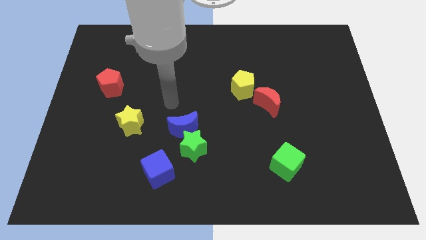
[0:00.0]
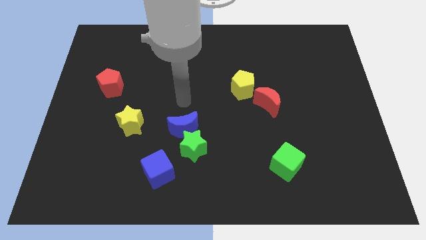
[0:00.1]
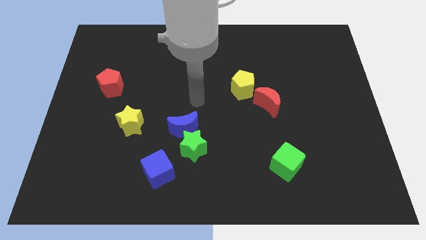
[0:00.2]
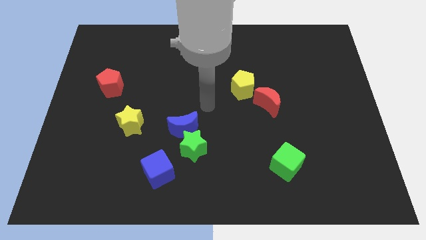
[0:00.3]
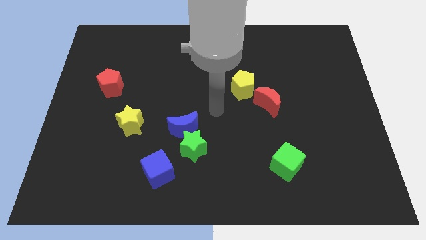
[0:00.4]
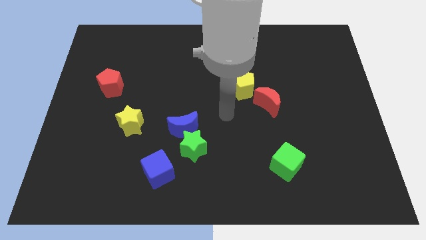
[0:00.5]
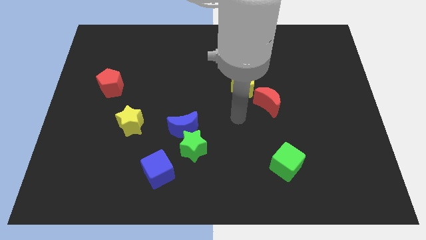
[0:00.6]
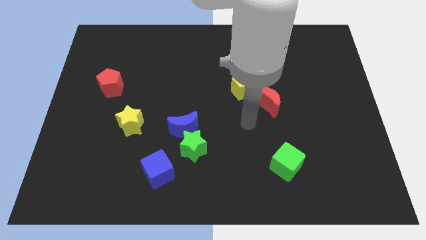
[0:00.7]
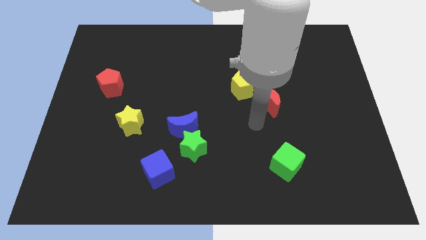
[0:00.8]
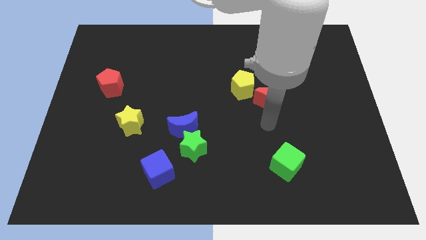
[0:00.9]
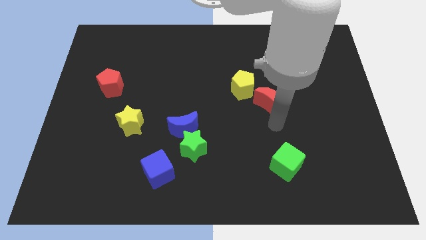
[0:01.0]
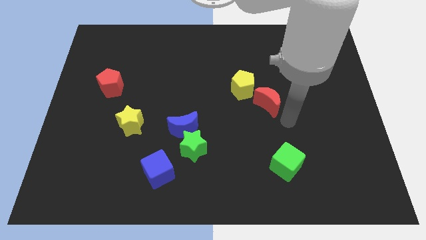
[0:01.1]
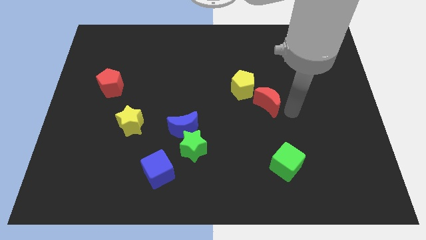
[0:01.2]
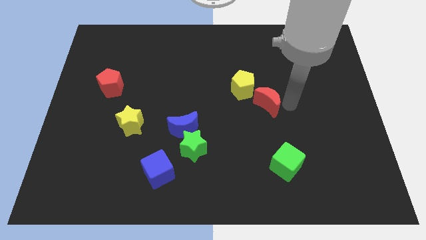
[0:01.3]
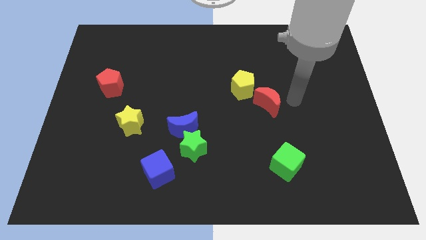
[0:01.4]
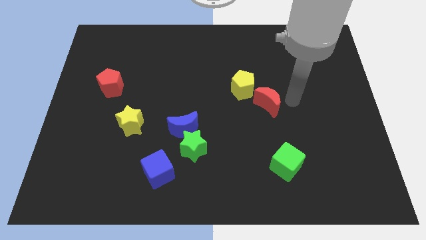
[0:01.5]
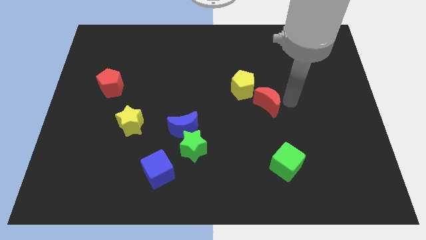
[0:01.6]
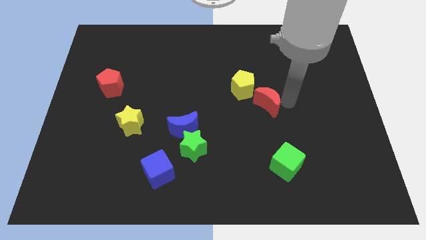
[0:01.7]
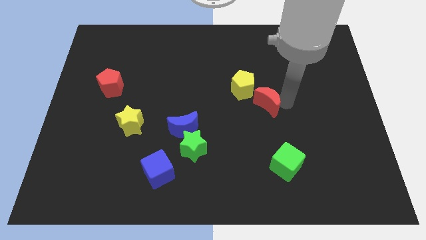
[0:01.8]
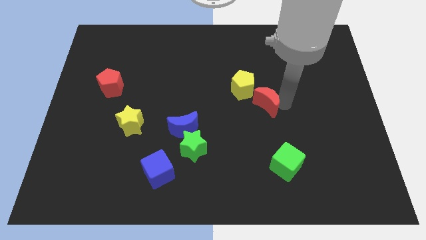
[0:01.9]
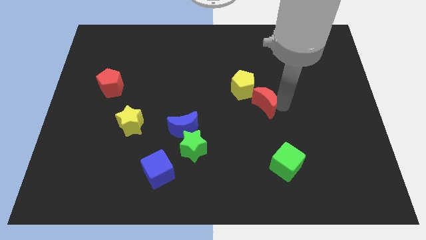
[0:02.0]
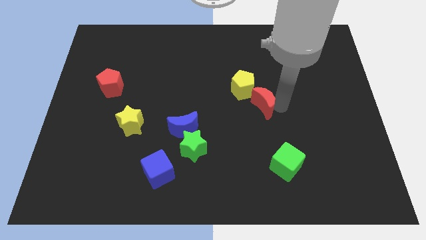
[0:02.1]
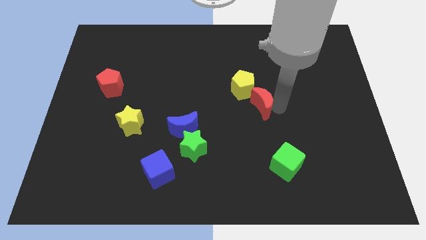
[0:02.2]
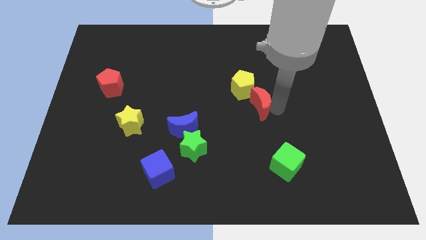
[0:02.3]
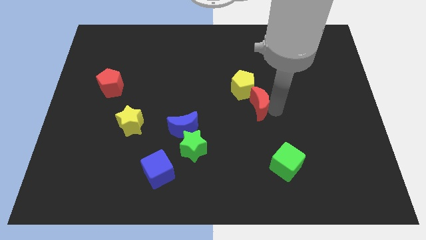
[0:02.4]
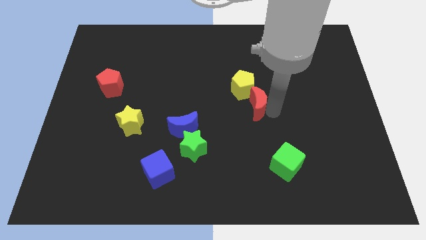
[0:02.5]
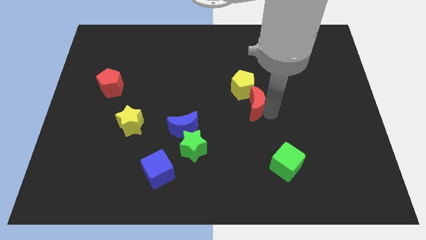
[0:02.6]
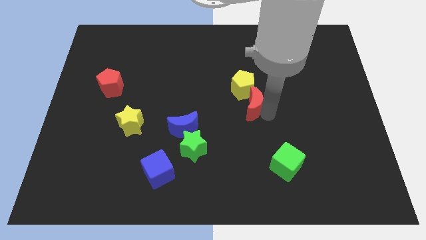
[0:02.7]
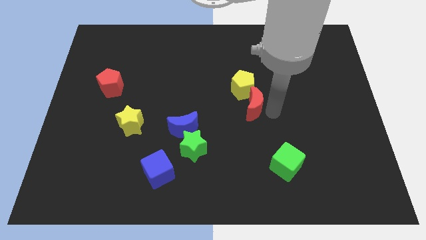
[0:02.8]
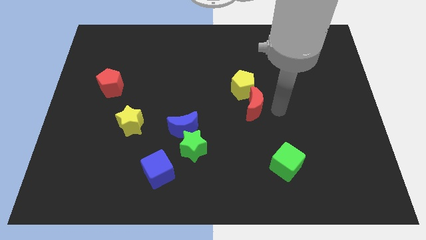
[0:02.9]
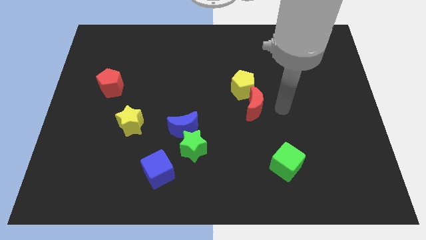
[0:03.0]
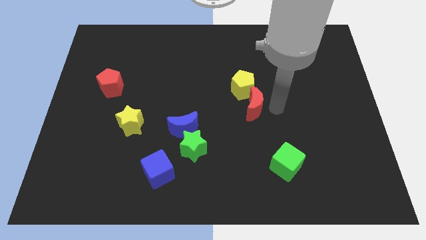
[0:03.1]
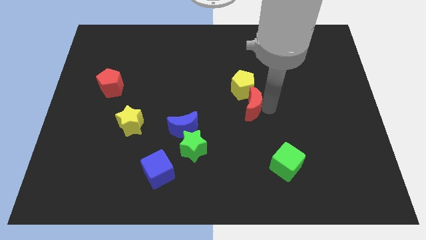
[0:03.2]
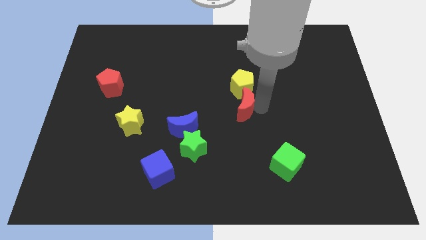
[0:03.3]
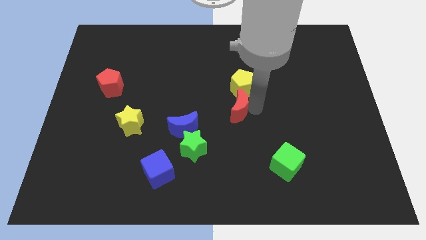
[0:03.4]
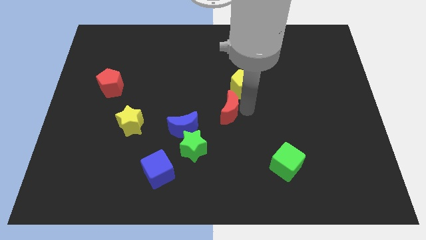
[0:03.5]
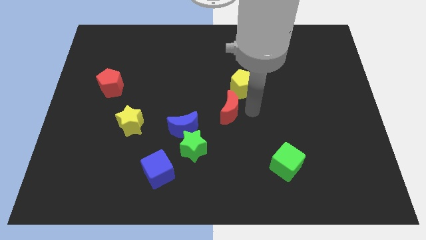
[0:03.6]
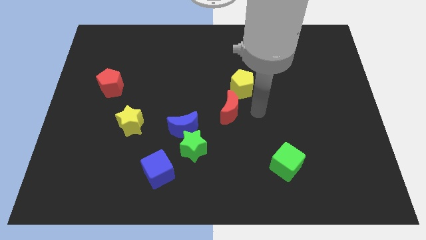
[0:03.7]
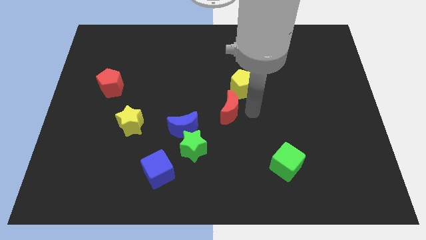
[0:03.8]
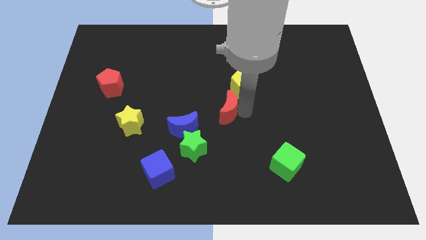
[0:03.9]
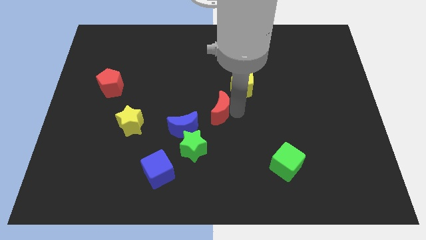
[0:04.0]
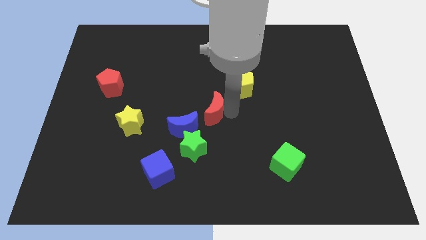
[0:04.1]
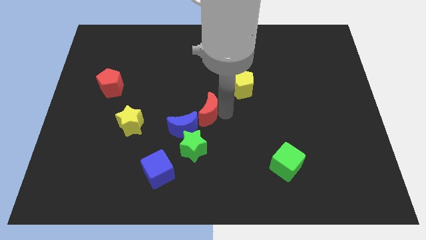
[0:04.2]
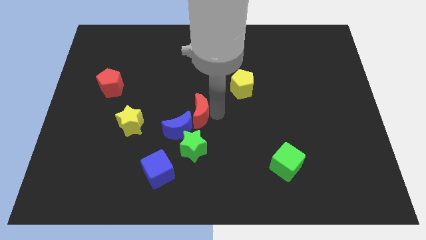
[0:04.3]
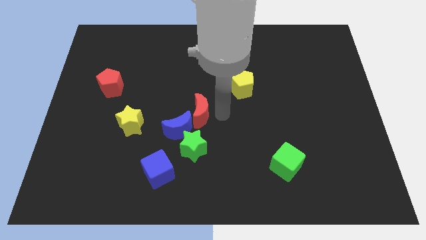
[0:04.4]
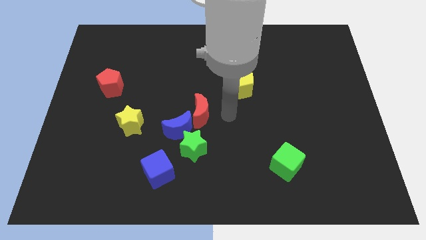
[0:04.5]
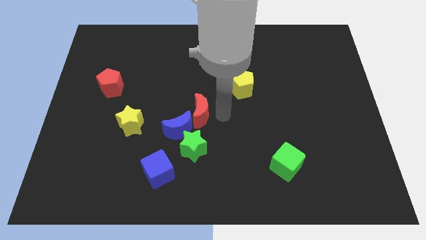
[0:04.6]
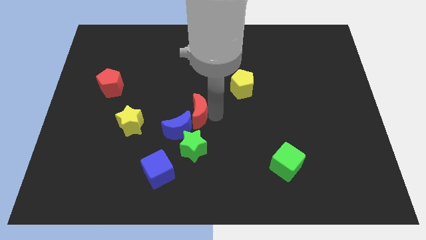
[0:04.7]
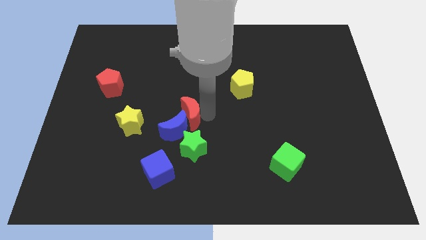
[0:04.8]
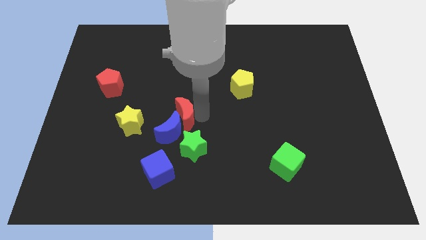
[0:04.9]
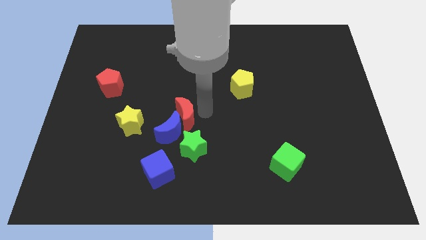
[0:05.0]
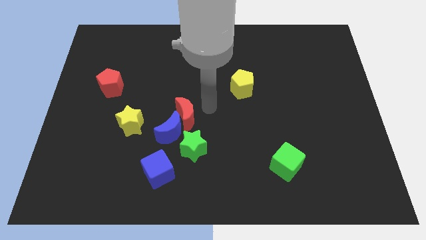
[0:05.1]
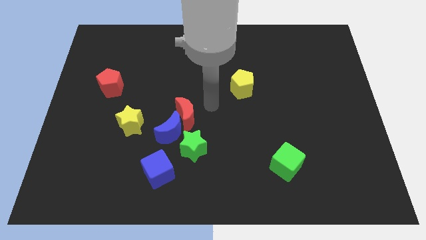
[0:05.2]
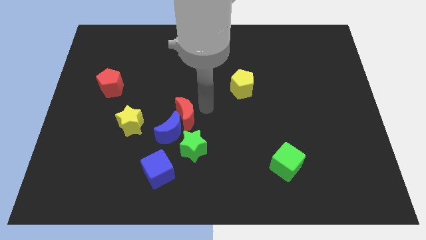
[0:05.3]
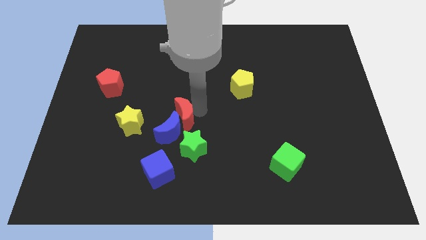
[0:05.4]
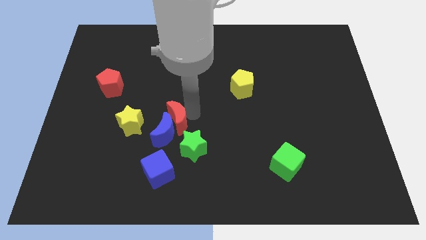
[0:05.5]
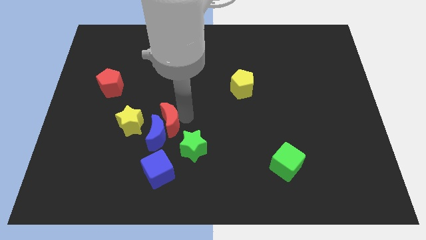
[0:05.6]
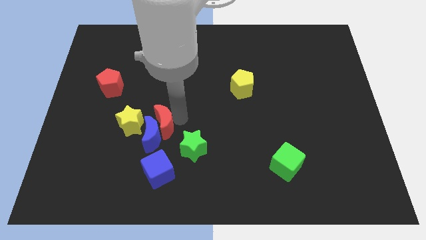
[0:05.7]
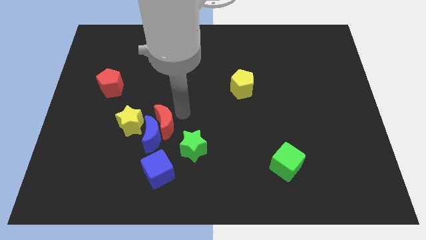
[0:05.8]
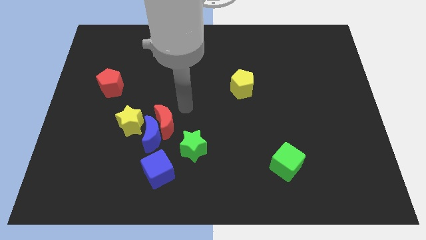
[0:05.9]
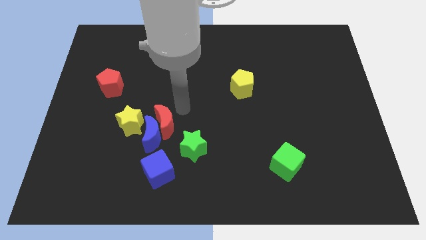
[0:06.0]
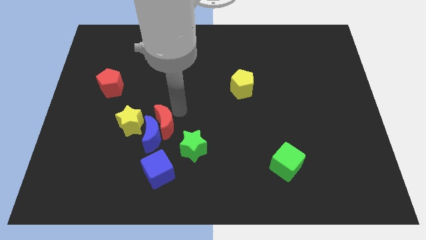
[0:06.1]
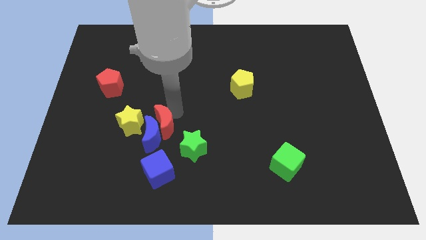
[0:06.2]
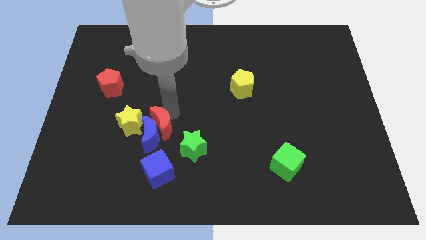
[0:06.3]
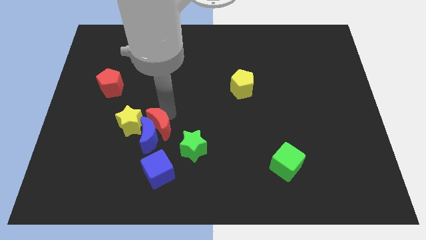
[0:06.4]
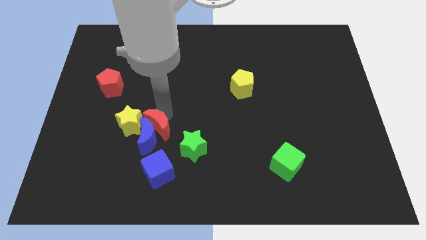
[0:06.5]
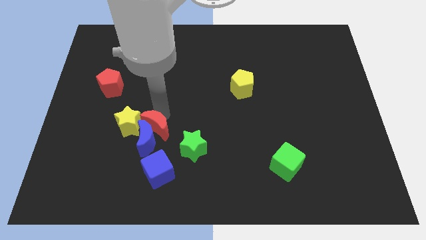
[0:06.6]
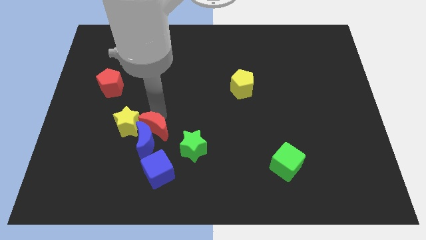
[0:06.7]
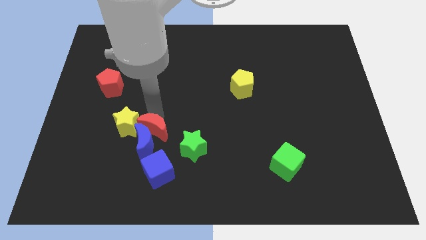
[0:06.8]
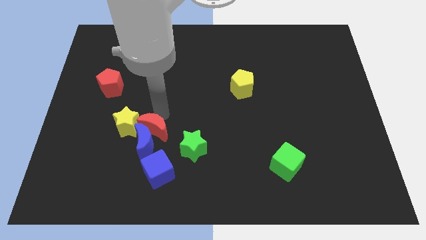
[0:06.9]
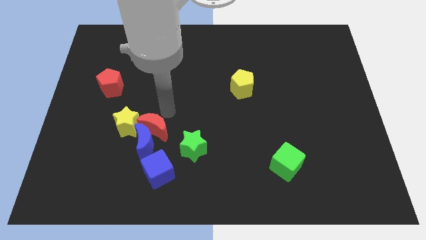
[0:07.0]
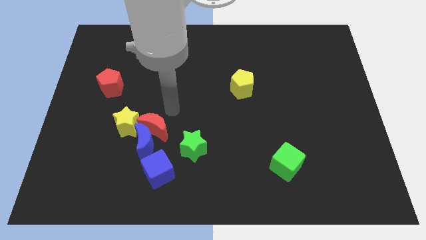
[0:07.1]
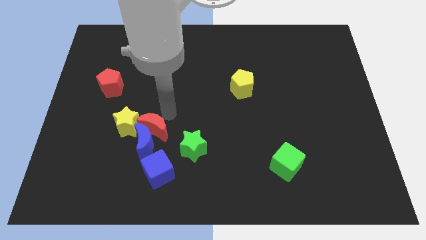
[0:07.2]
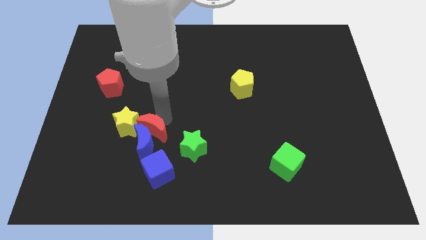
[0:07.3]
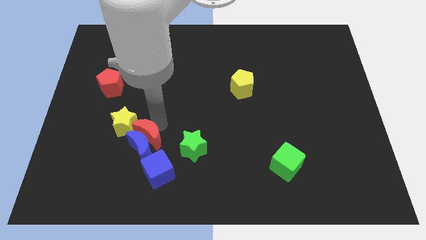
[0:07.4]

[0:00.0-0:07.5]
push the red moon to the top left side of the blue cube
